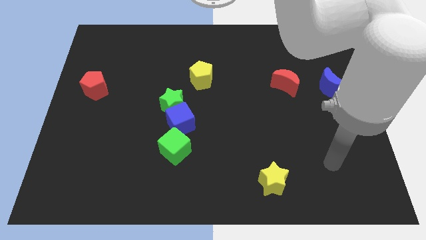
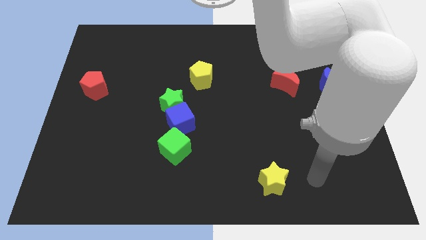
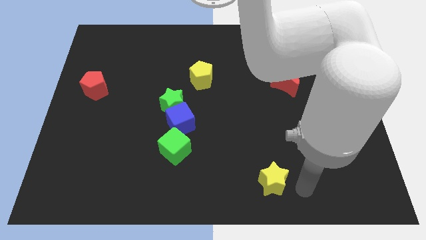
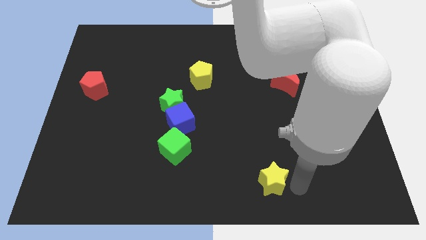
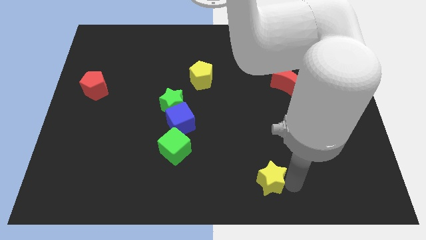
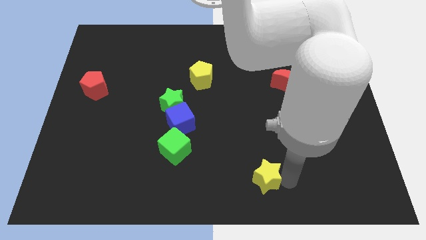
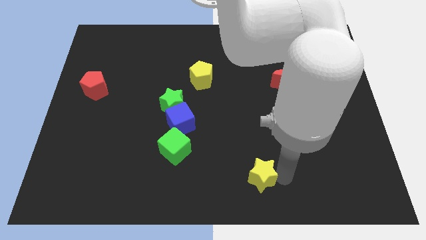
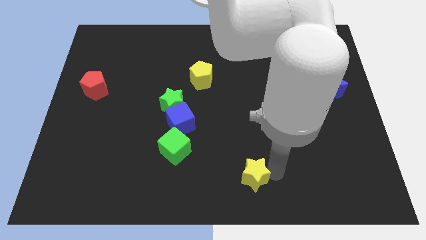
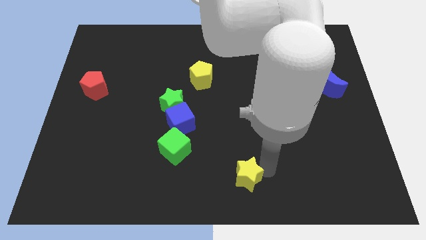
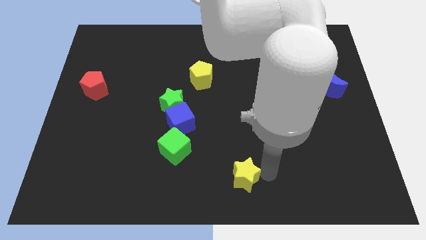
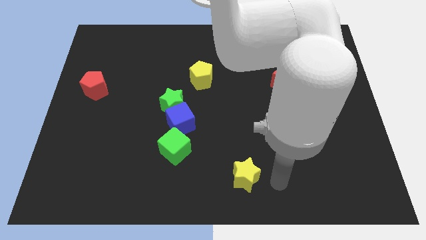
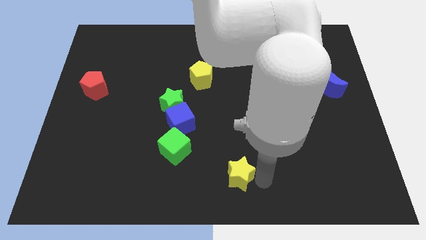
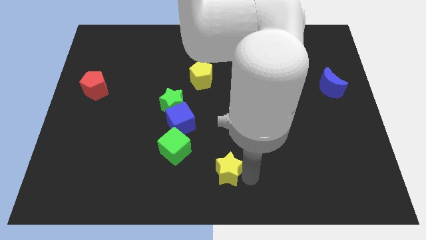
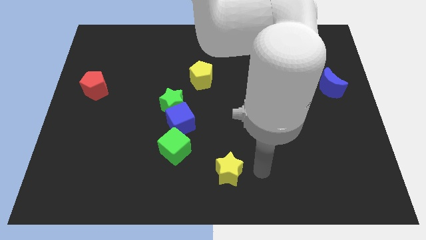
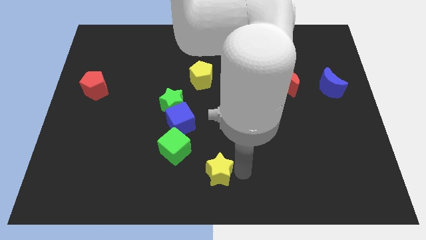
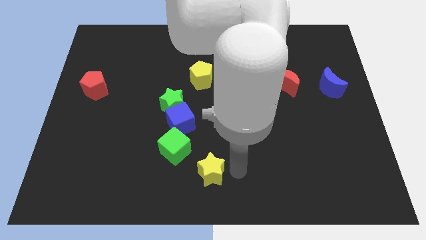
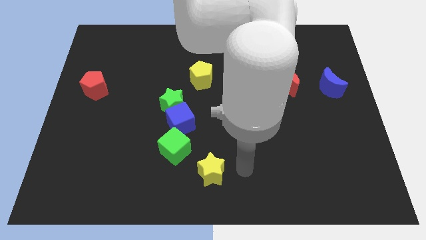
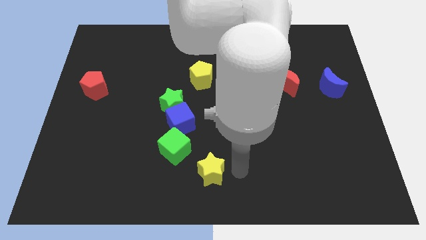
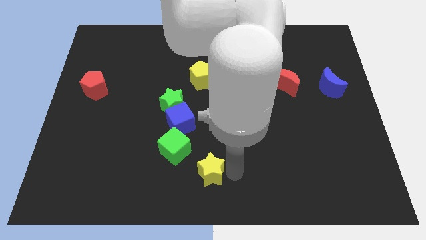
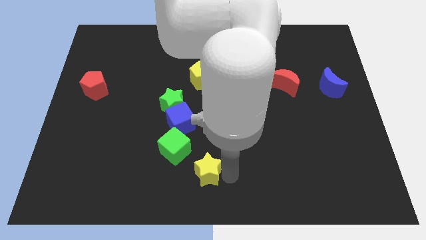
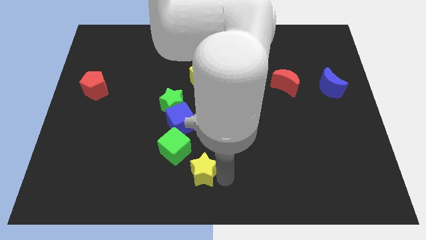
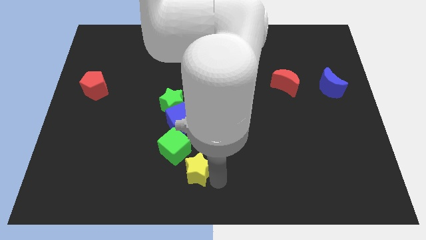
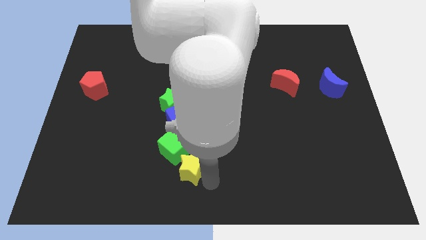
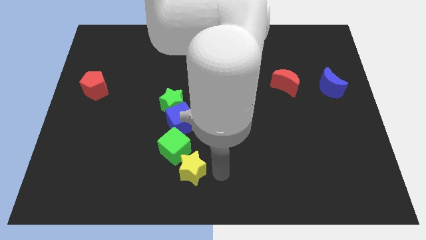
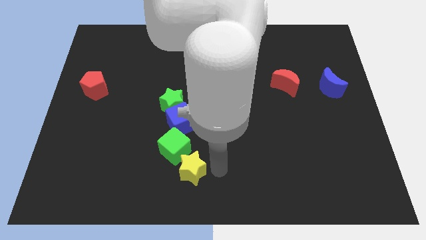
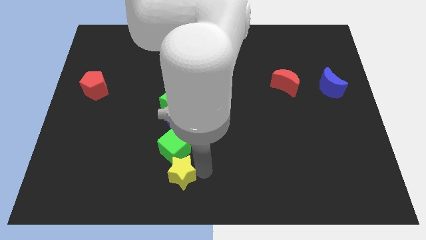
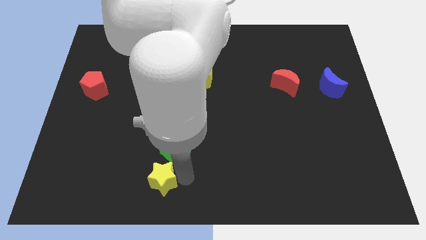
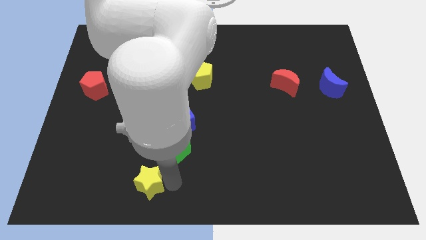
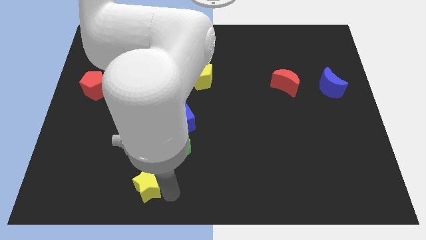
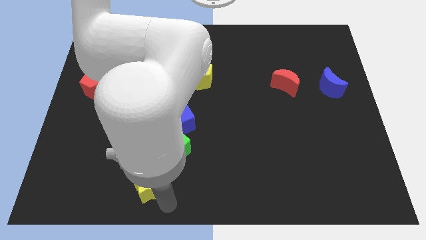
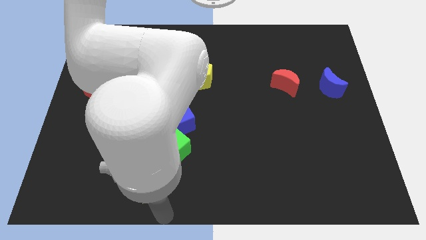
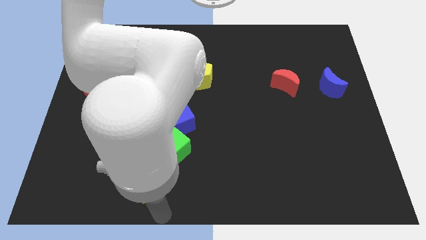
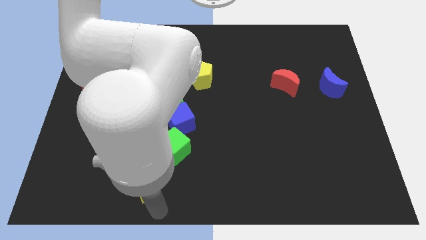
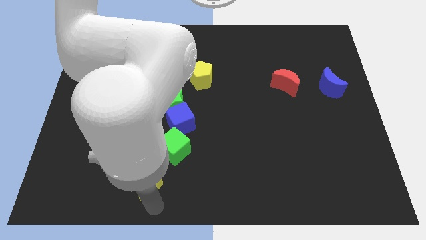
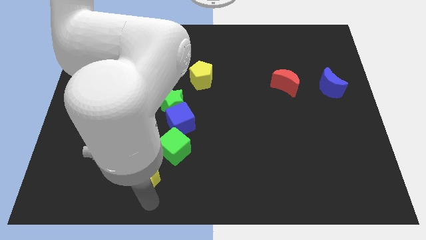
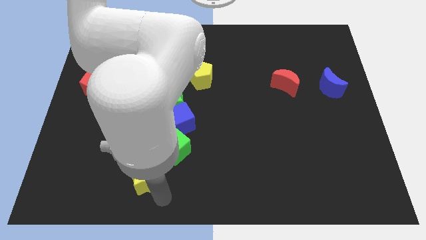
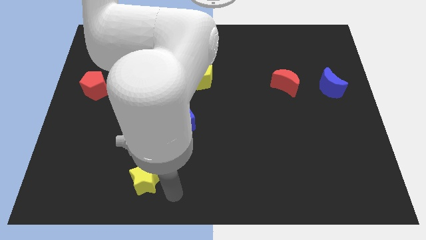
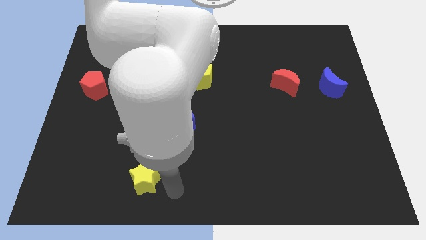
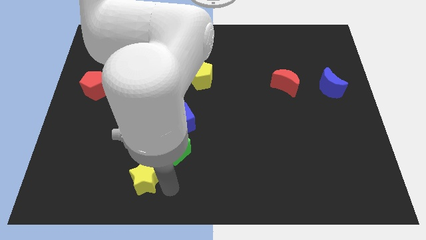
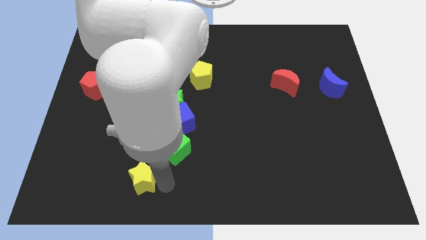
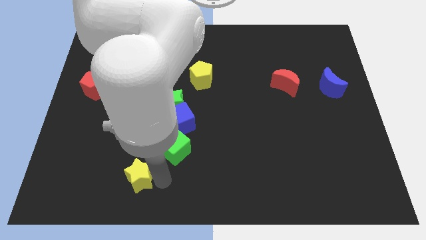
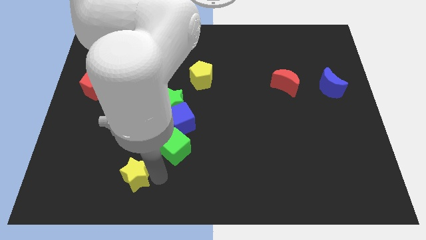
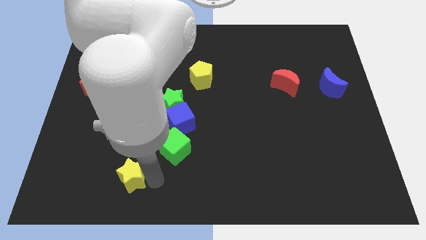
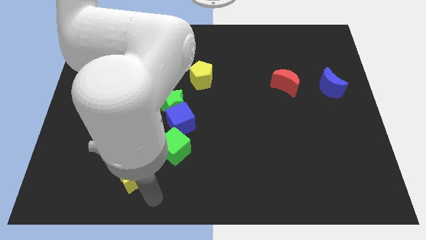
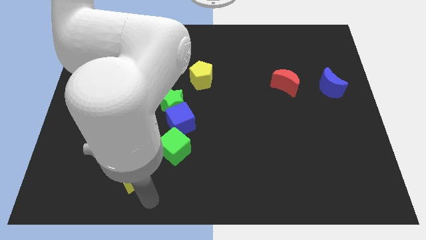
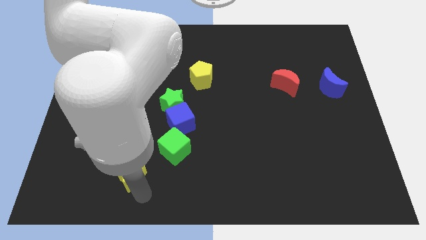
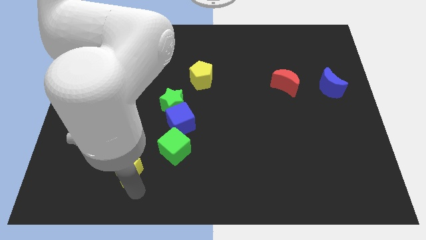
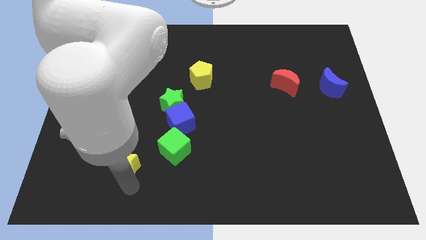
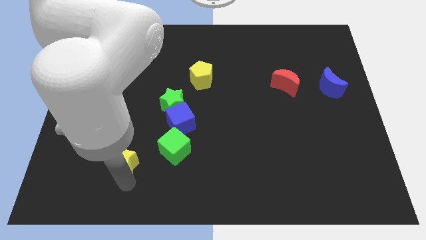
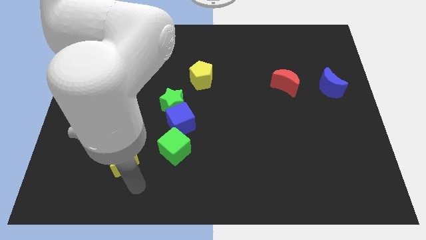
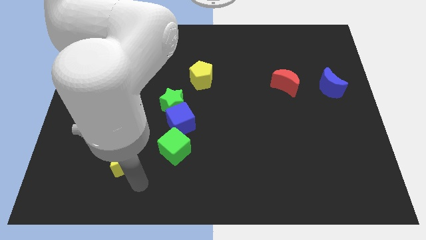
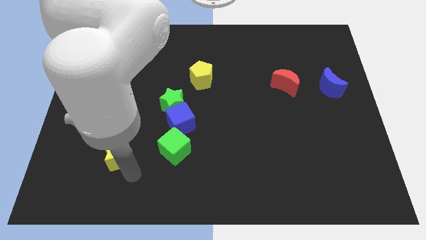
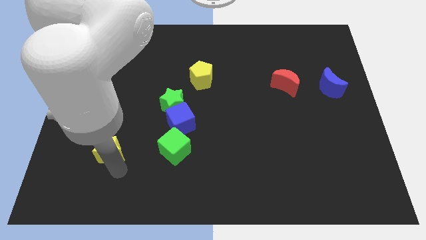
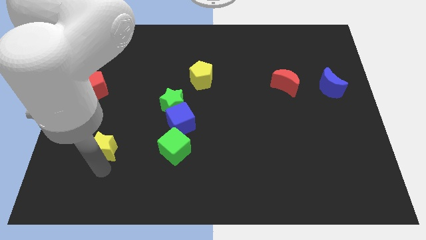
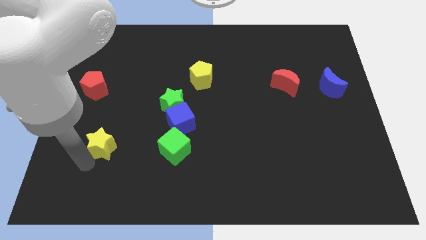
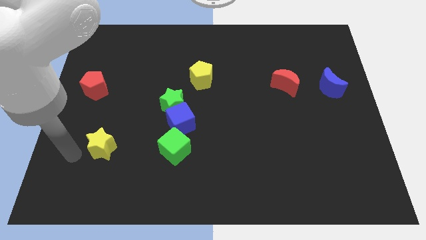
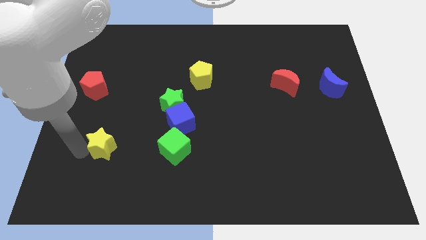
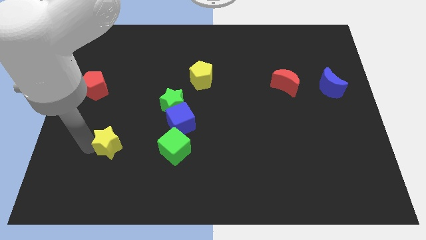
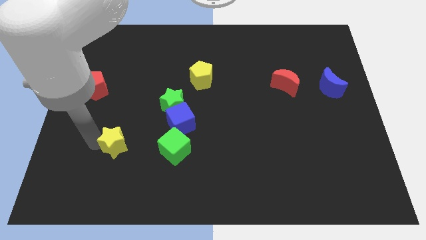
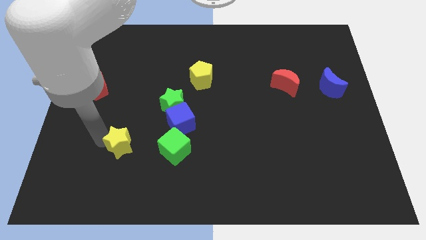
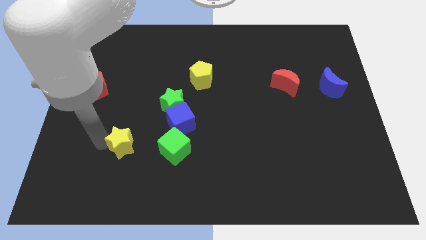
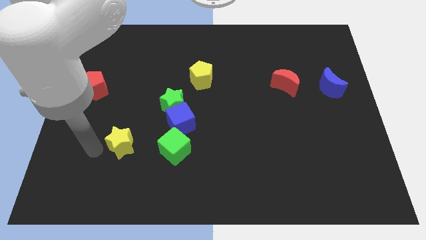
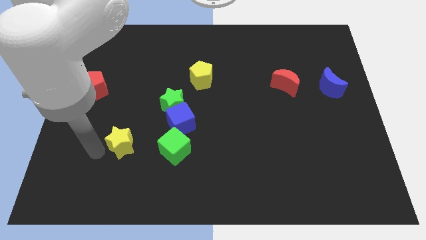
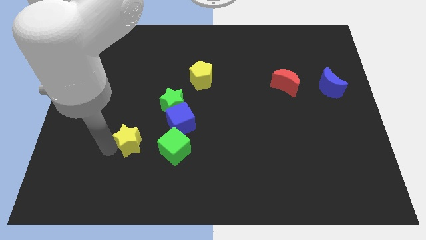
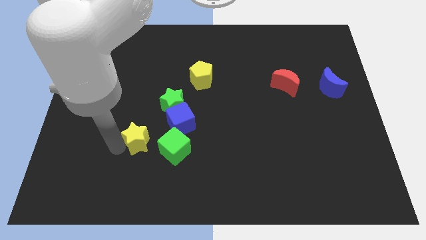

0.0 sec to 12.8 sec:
slide the yellow star to the top left side of the green cube
